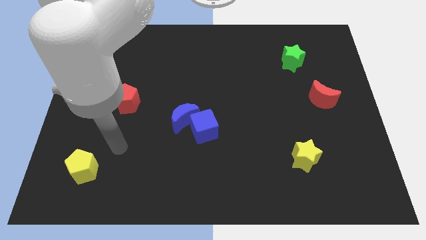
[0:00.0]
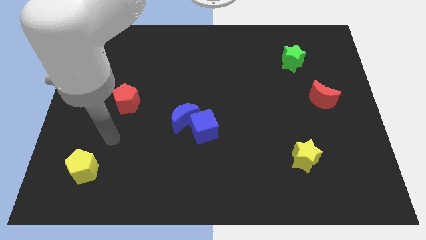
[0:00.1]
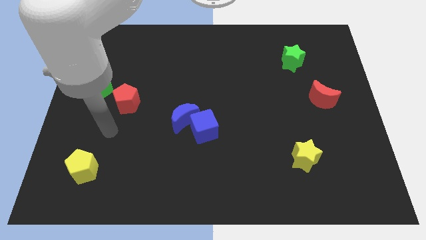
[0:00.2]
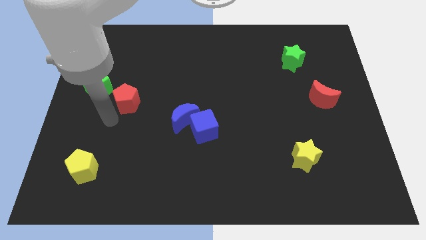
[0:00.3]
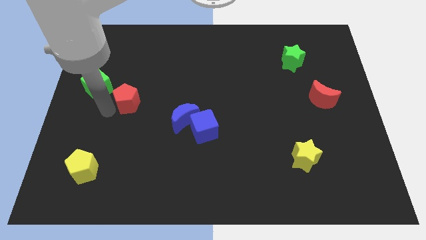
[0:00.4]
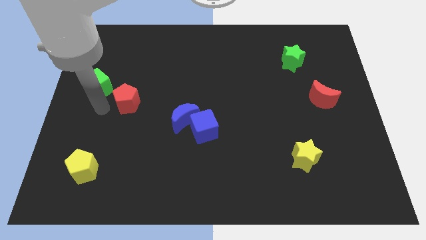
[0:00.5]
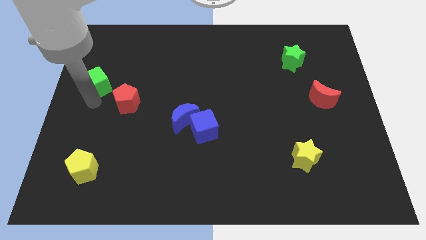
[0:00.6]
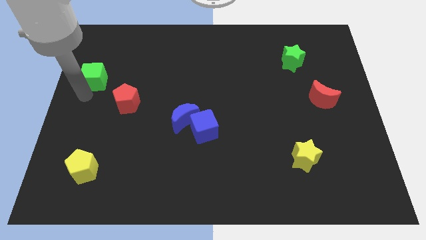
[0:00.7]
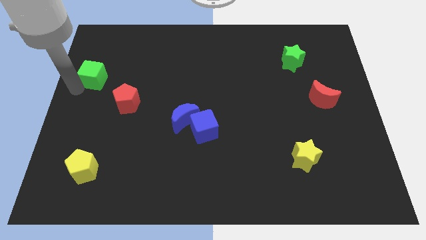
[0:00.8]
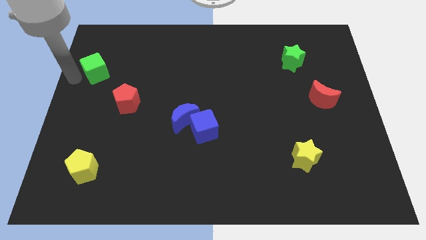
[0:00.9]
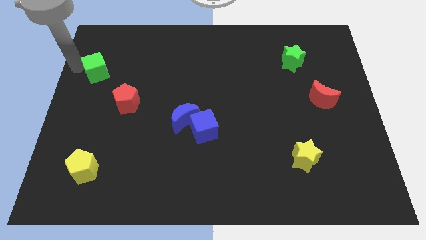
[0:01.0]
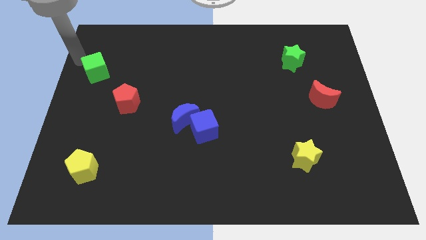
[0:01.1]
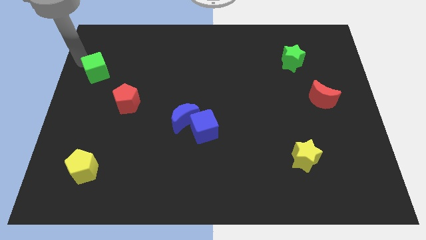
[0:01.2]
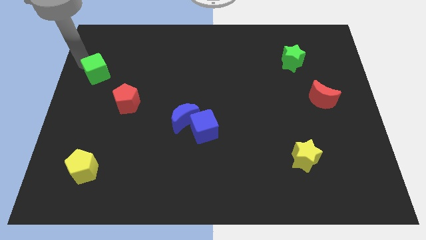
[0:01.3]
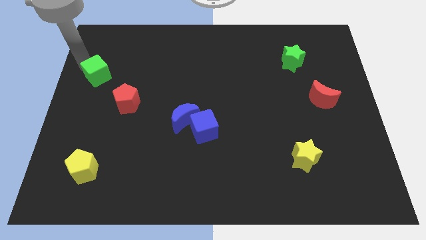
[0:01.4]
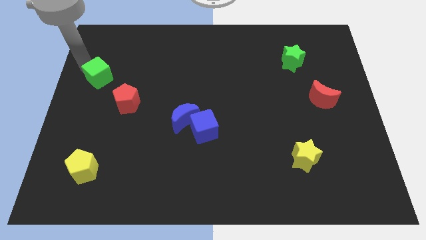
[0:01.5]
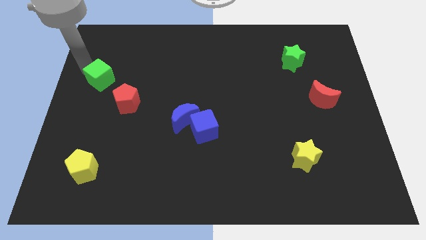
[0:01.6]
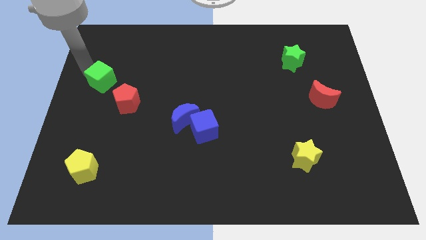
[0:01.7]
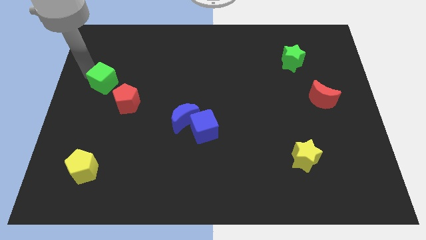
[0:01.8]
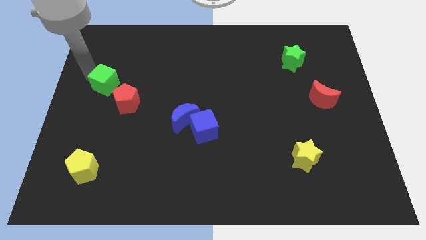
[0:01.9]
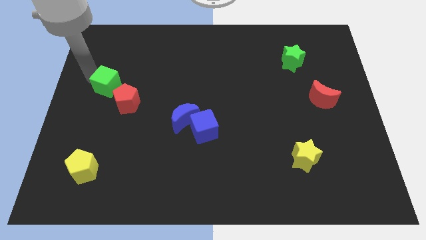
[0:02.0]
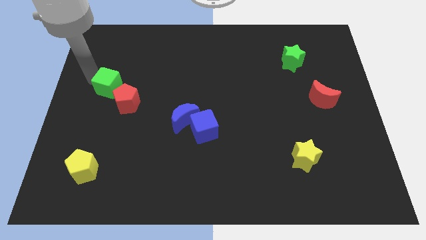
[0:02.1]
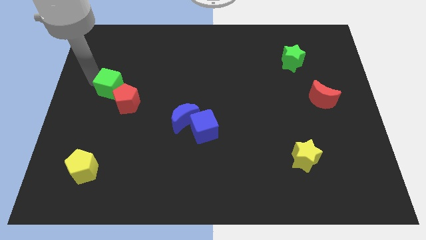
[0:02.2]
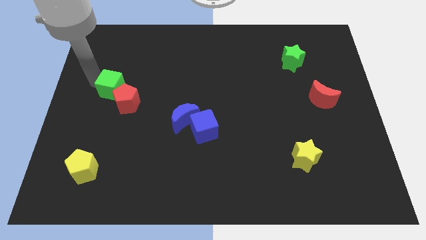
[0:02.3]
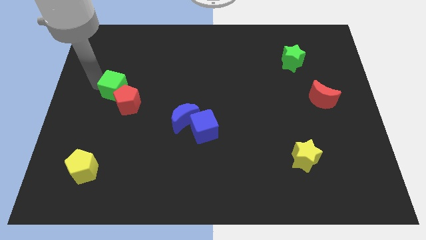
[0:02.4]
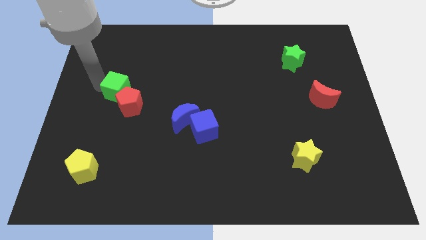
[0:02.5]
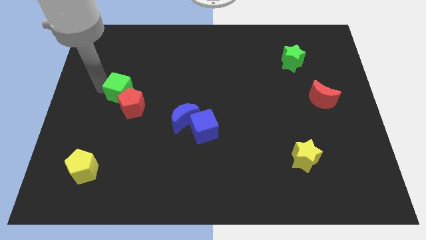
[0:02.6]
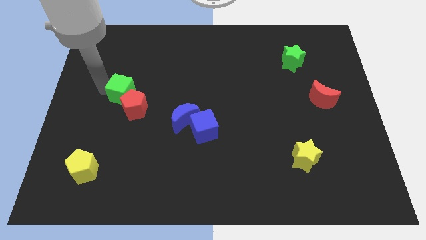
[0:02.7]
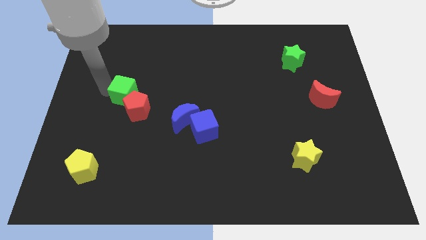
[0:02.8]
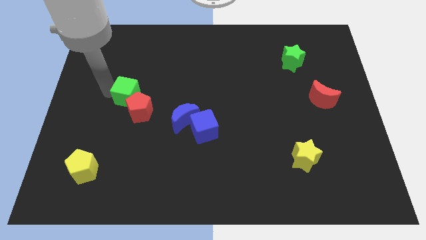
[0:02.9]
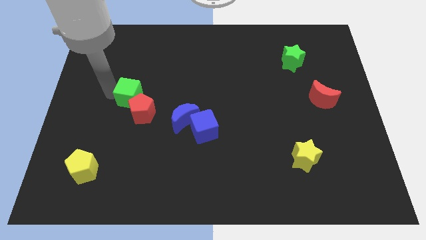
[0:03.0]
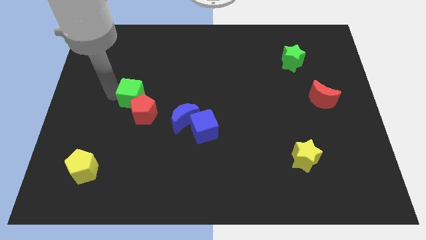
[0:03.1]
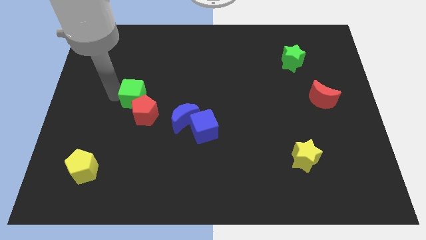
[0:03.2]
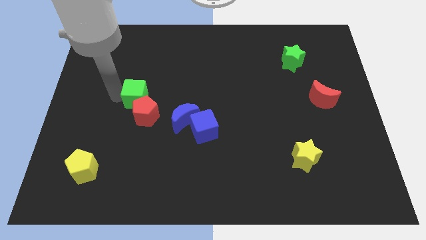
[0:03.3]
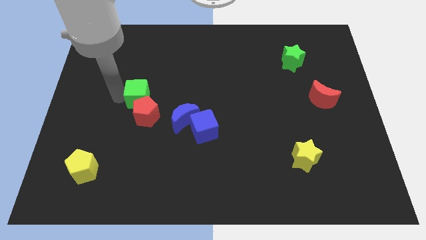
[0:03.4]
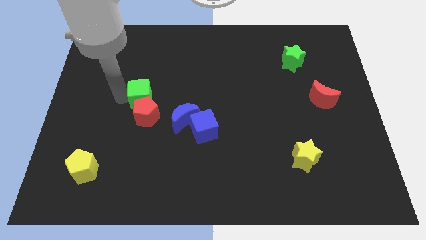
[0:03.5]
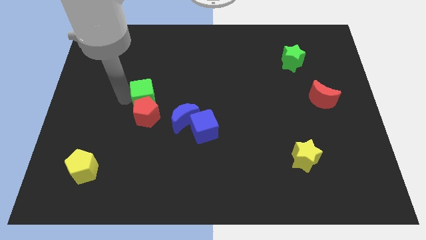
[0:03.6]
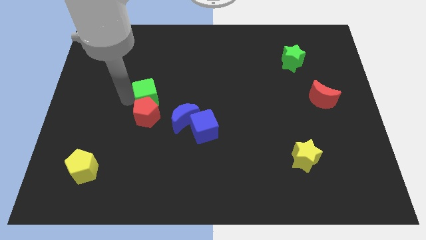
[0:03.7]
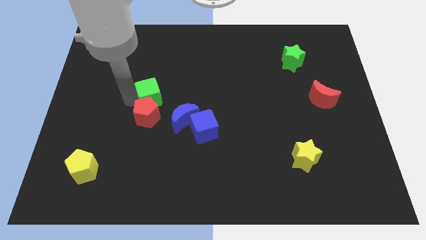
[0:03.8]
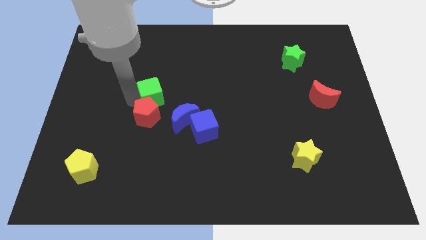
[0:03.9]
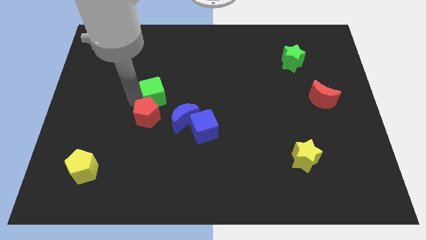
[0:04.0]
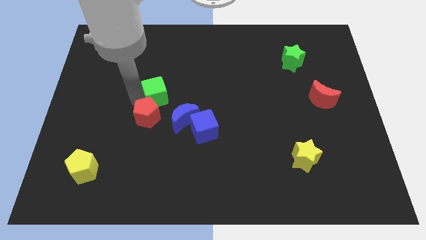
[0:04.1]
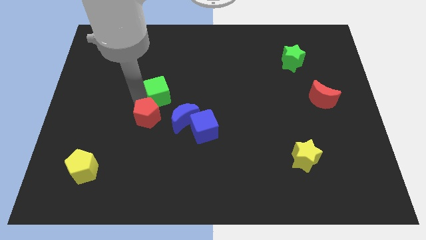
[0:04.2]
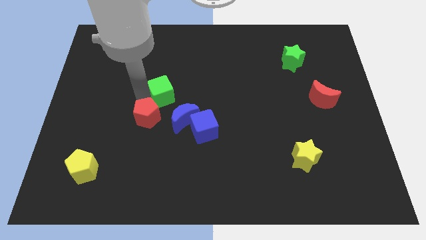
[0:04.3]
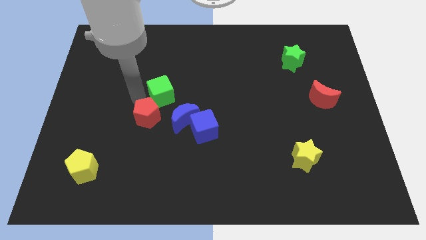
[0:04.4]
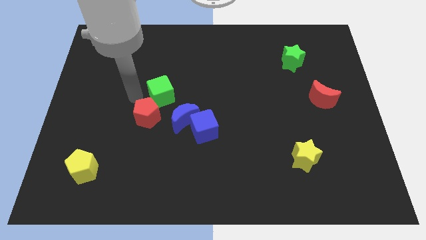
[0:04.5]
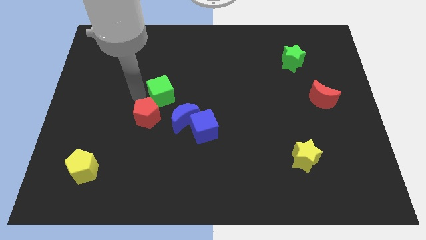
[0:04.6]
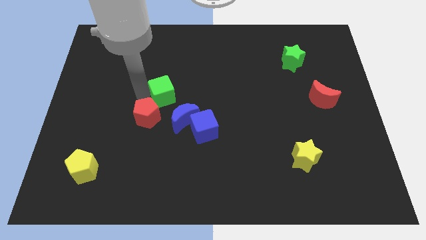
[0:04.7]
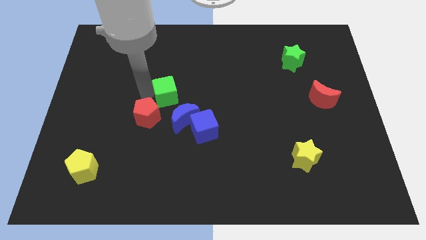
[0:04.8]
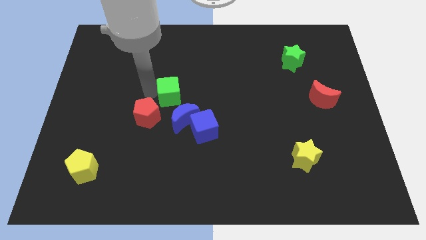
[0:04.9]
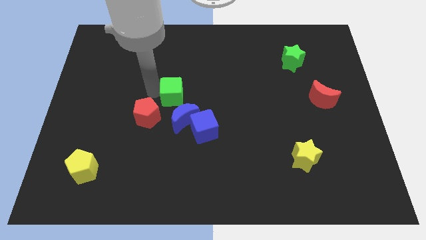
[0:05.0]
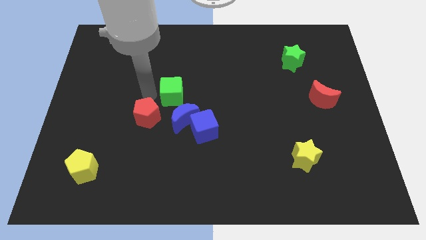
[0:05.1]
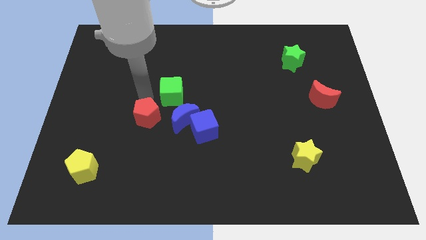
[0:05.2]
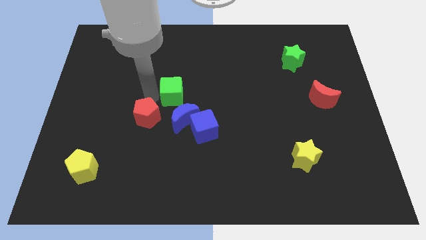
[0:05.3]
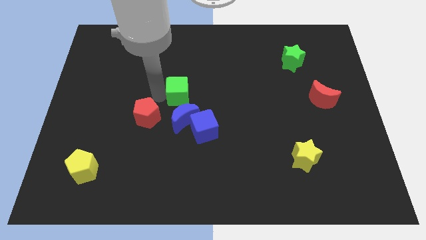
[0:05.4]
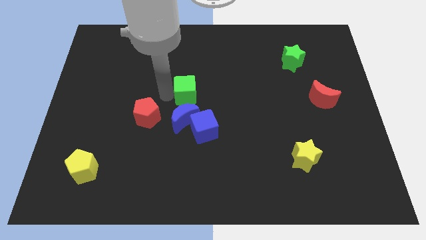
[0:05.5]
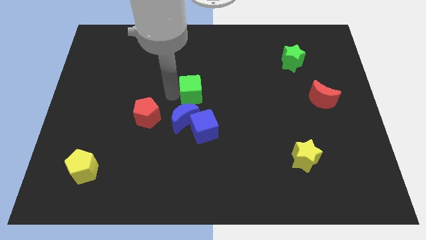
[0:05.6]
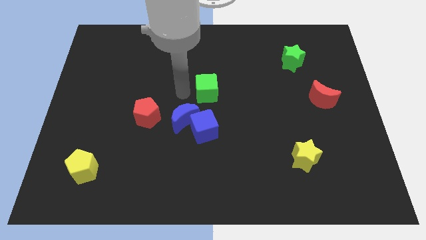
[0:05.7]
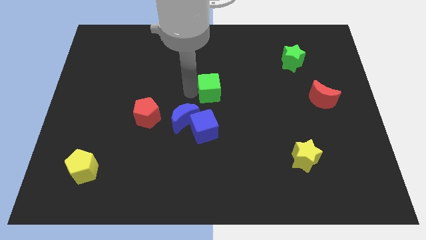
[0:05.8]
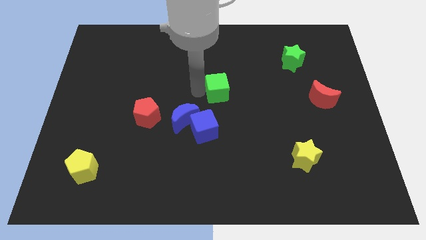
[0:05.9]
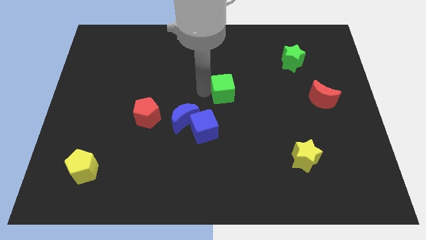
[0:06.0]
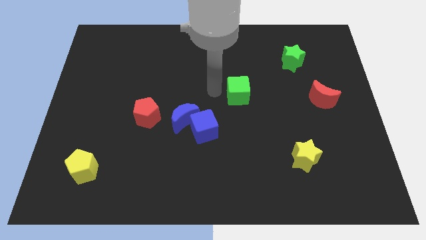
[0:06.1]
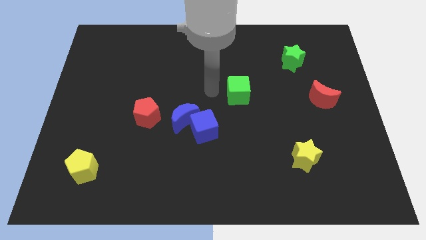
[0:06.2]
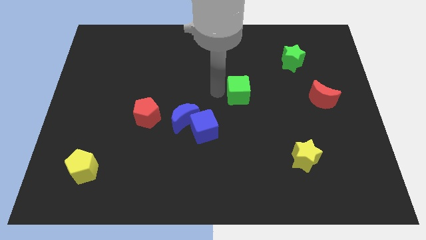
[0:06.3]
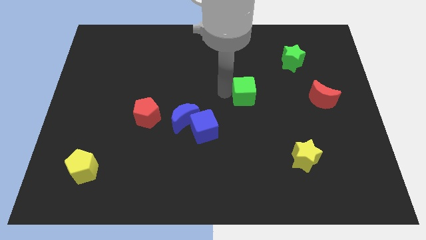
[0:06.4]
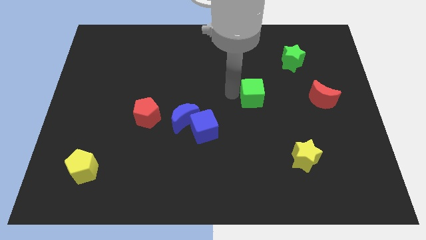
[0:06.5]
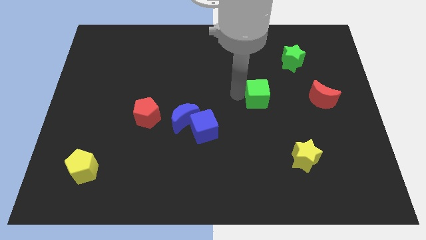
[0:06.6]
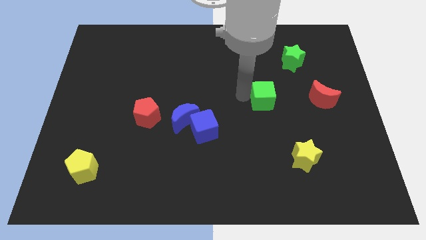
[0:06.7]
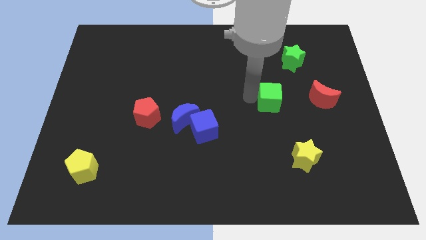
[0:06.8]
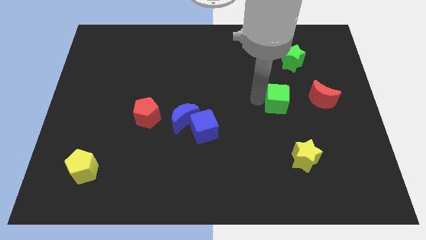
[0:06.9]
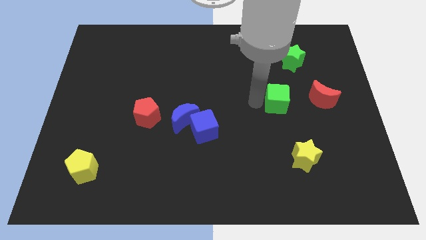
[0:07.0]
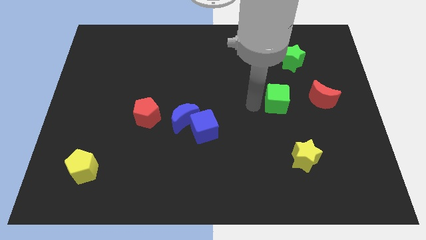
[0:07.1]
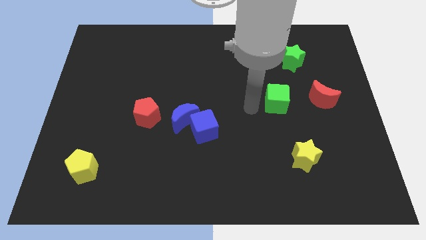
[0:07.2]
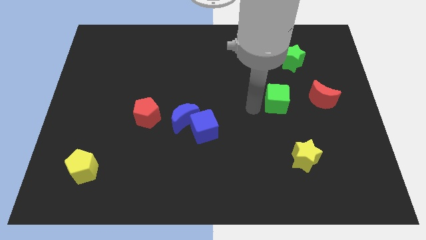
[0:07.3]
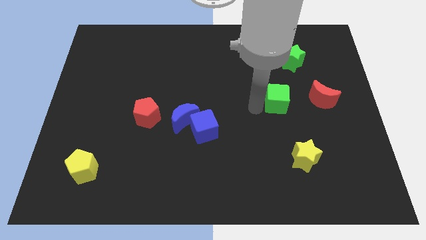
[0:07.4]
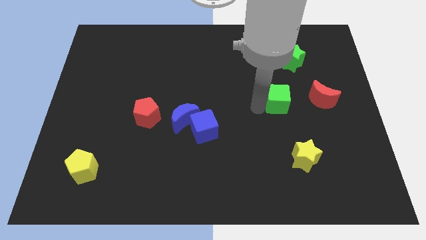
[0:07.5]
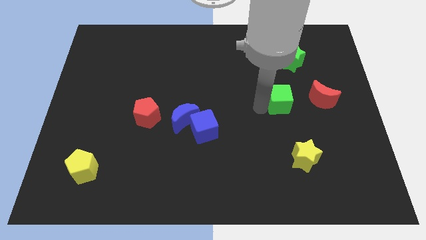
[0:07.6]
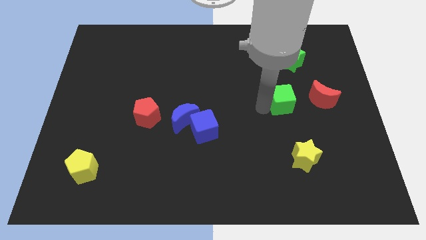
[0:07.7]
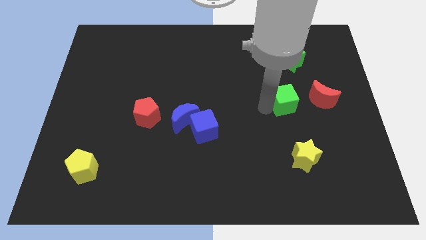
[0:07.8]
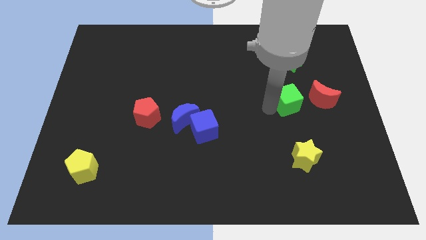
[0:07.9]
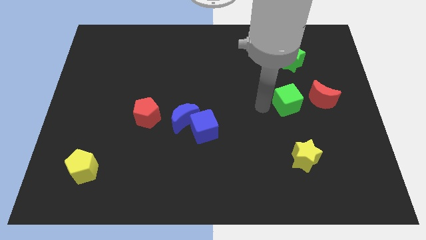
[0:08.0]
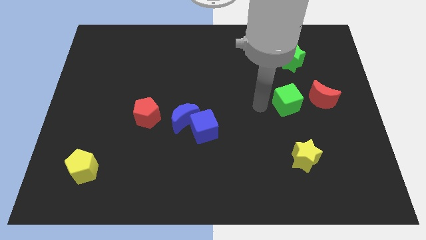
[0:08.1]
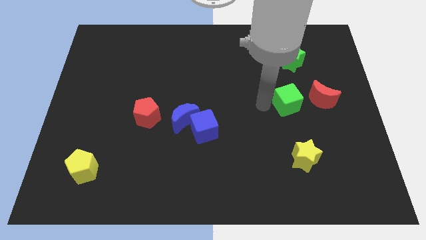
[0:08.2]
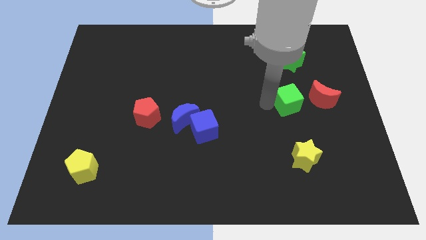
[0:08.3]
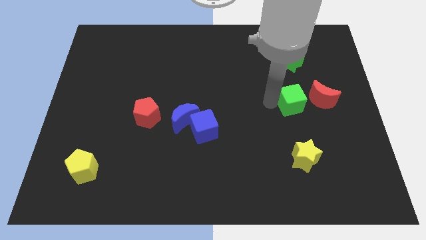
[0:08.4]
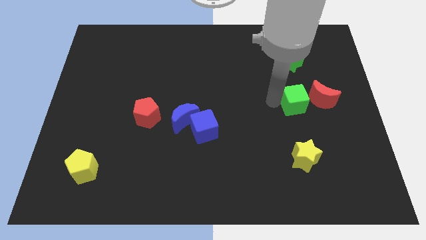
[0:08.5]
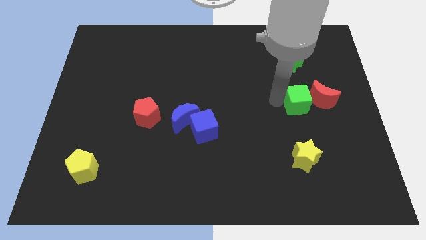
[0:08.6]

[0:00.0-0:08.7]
move the green cube close to the red moon
